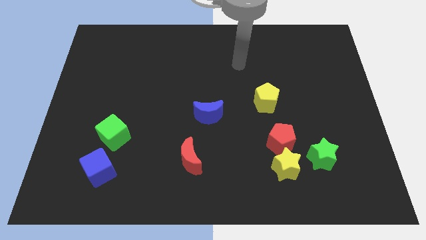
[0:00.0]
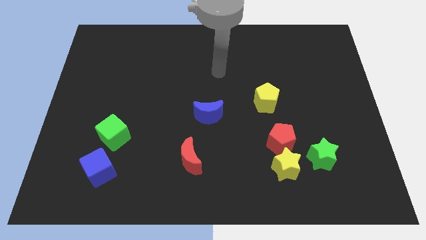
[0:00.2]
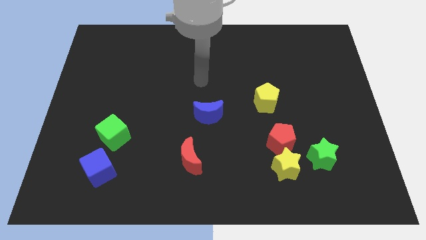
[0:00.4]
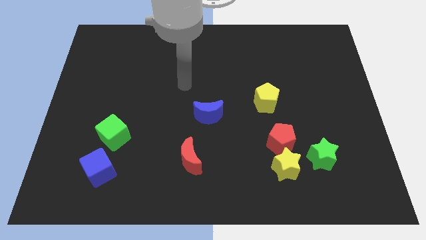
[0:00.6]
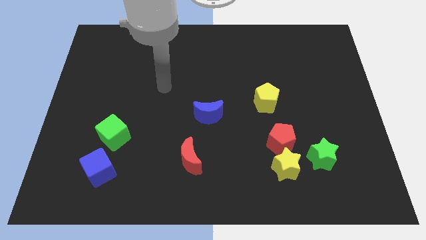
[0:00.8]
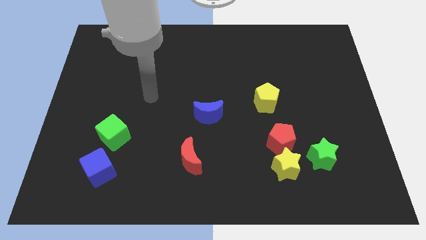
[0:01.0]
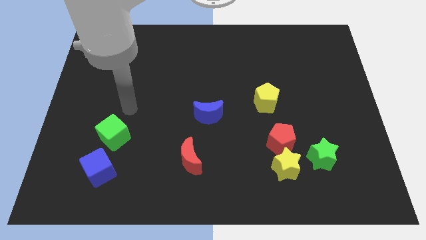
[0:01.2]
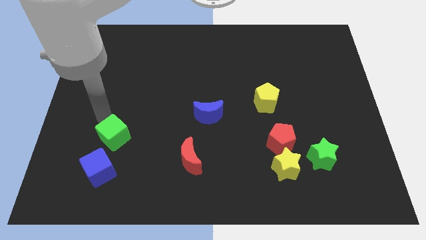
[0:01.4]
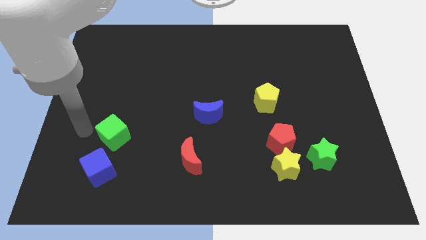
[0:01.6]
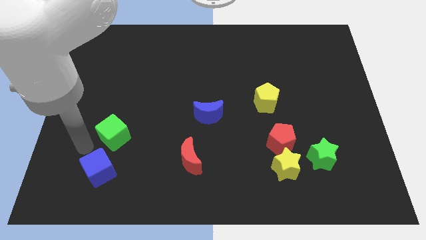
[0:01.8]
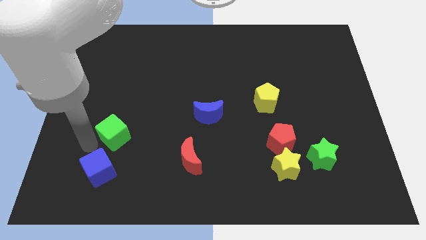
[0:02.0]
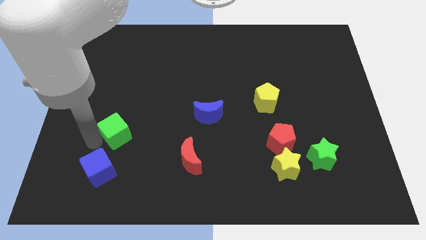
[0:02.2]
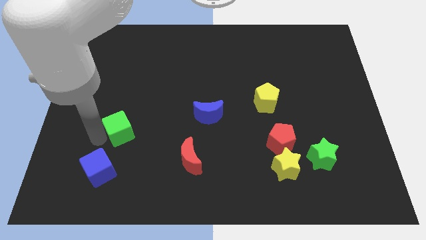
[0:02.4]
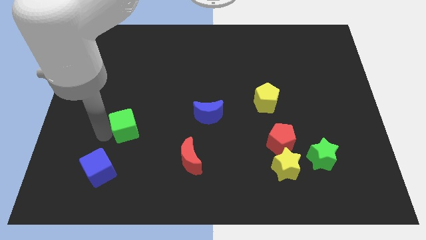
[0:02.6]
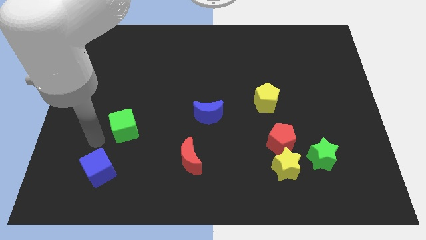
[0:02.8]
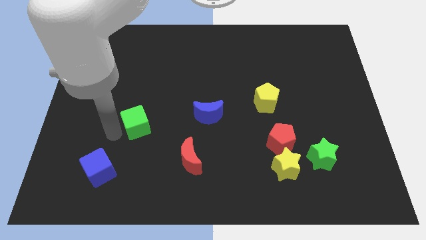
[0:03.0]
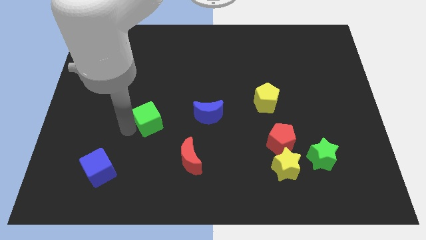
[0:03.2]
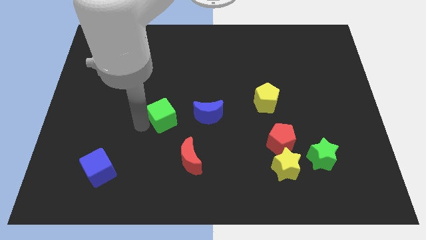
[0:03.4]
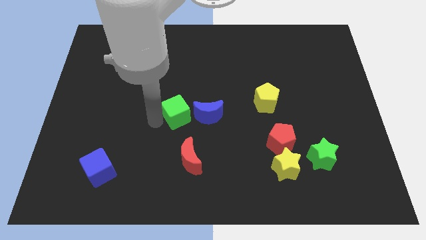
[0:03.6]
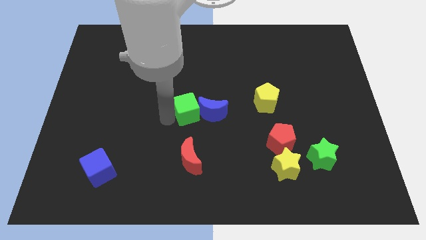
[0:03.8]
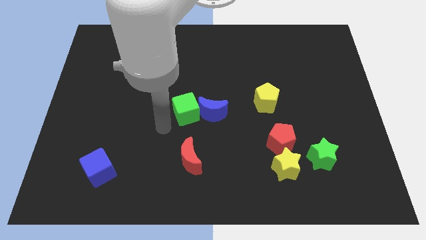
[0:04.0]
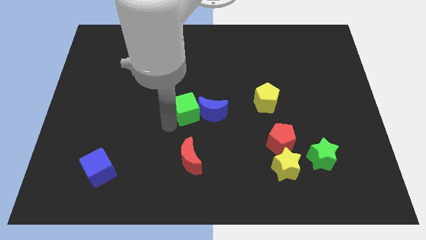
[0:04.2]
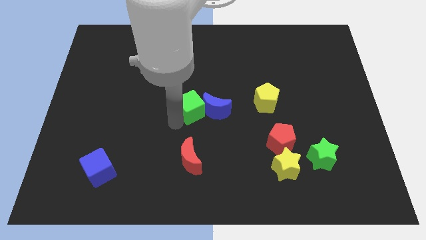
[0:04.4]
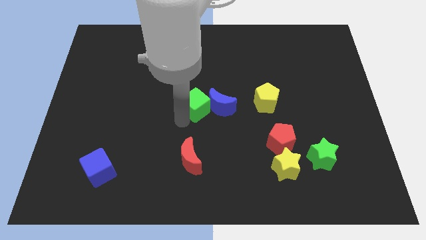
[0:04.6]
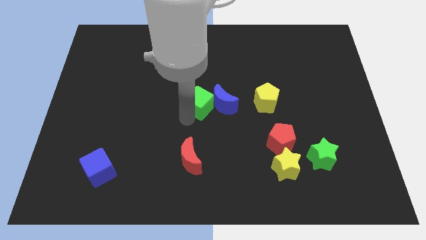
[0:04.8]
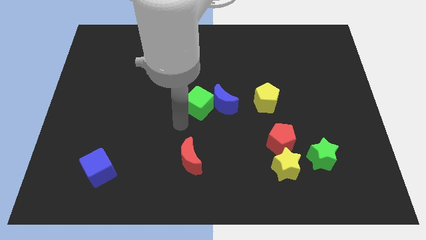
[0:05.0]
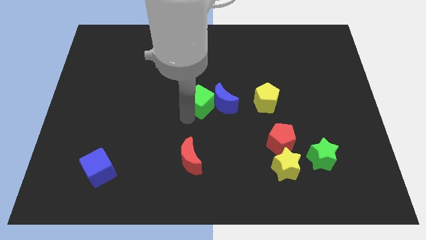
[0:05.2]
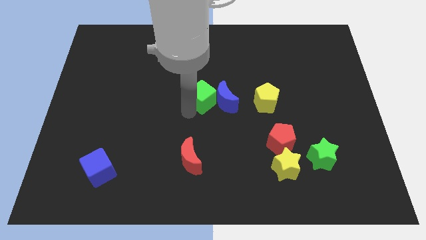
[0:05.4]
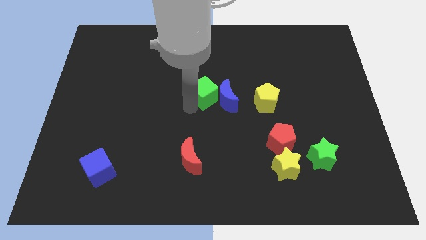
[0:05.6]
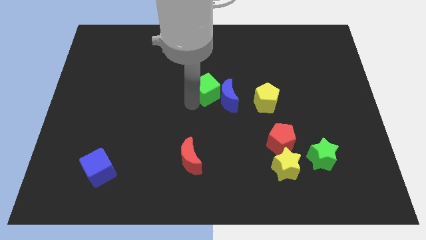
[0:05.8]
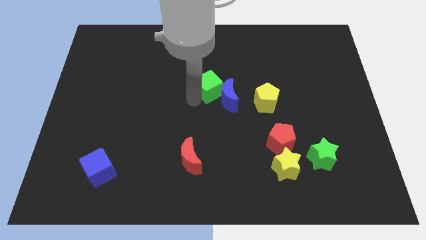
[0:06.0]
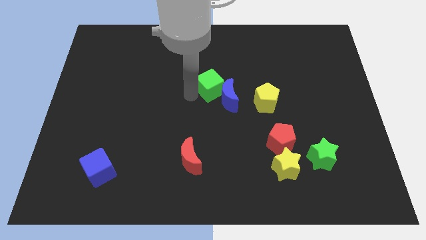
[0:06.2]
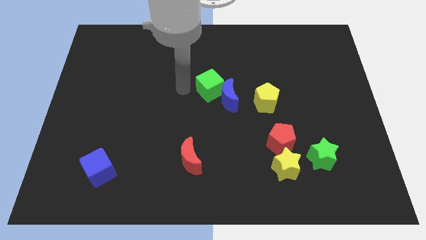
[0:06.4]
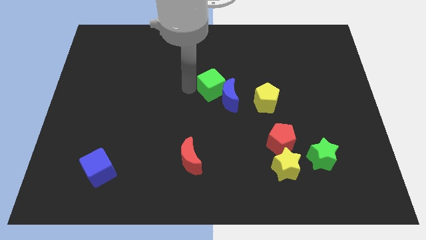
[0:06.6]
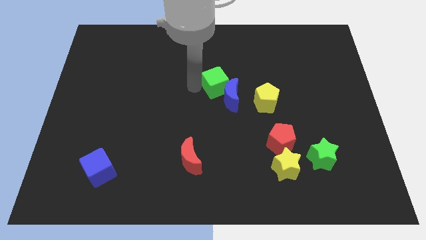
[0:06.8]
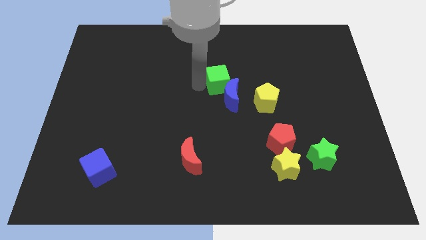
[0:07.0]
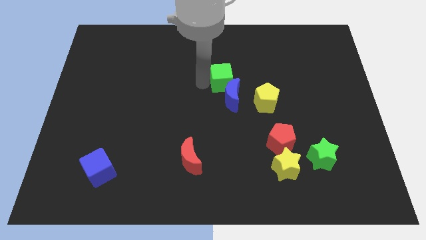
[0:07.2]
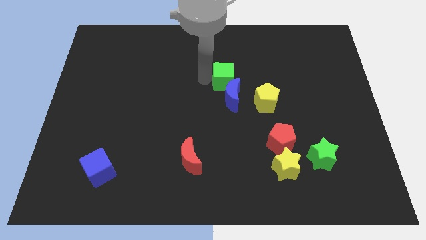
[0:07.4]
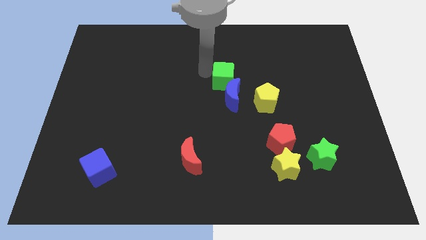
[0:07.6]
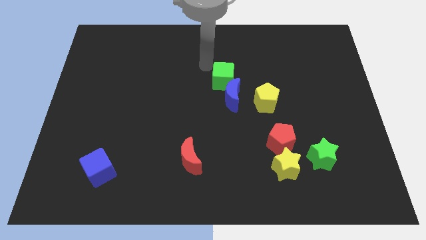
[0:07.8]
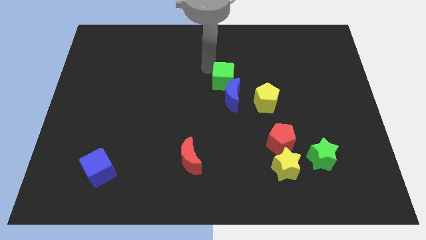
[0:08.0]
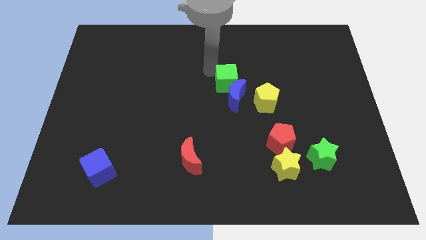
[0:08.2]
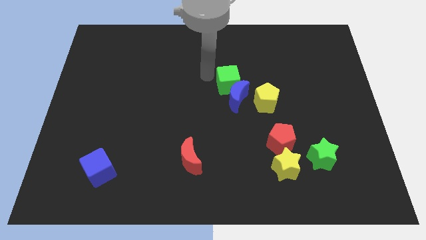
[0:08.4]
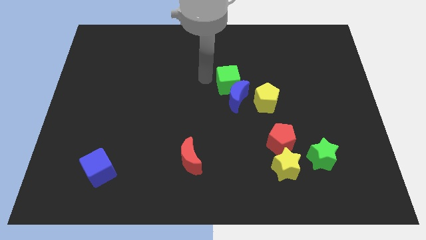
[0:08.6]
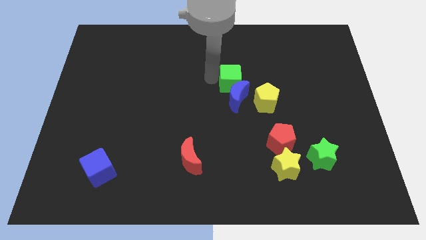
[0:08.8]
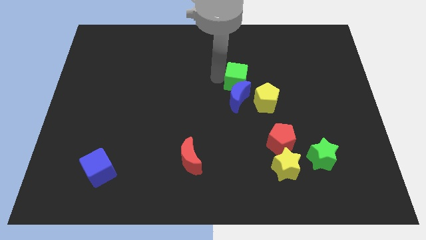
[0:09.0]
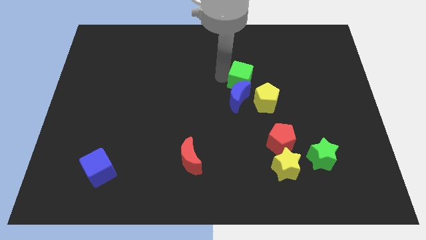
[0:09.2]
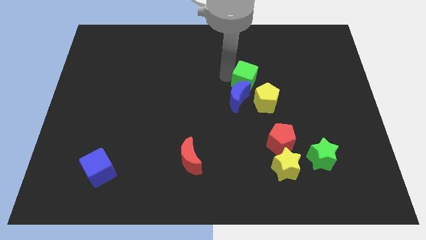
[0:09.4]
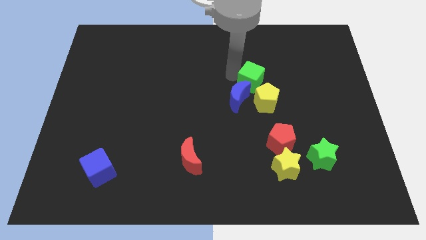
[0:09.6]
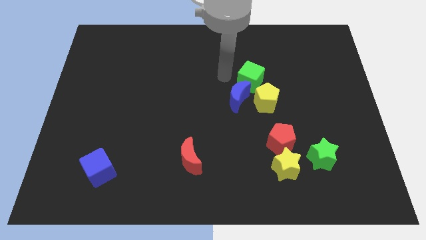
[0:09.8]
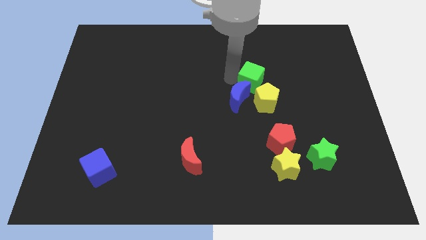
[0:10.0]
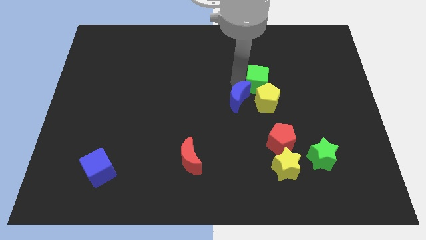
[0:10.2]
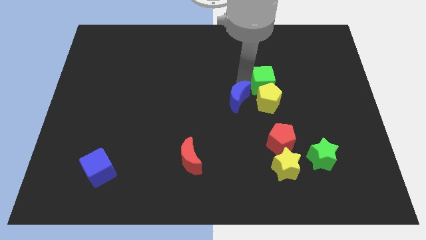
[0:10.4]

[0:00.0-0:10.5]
slide the green cube to the top right of the yellow pentagon

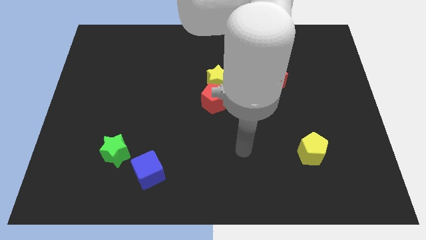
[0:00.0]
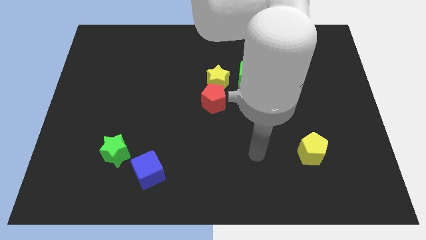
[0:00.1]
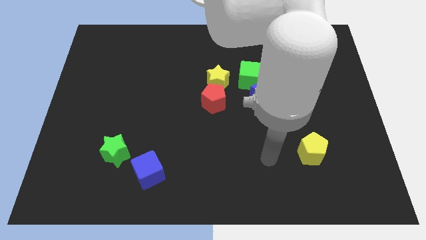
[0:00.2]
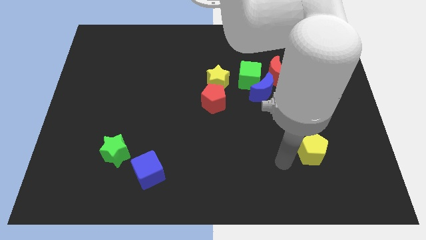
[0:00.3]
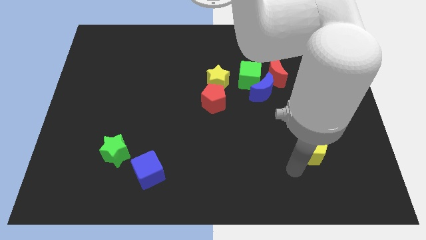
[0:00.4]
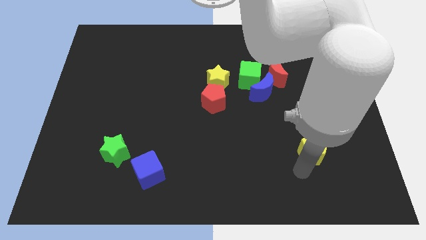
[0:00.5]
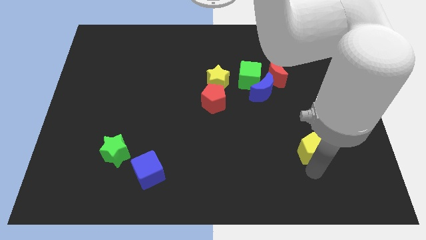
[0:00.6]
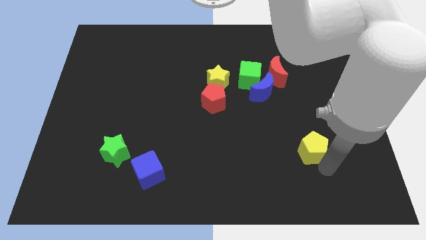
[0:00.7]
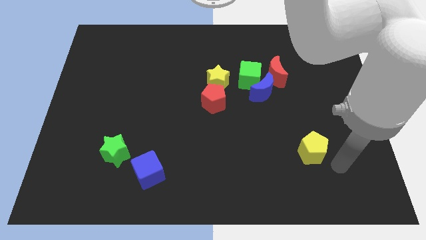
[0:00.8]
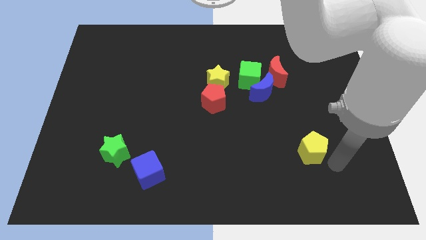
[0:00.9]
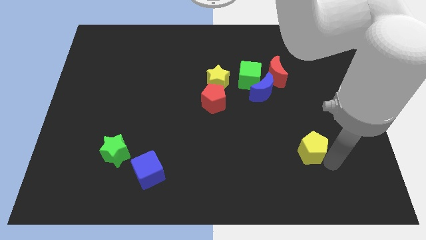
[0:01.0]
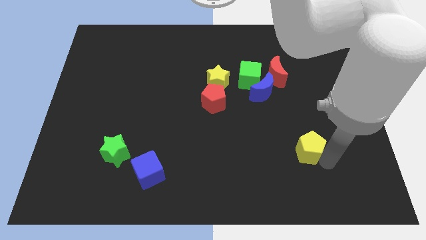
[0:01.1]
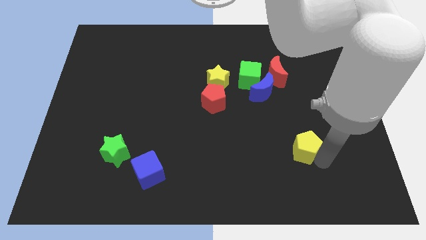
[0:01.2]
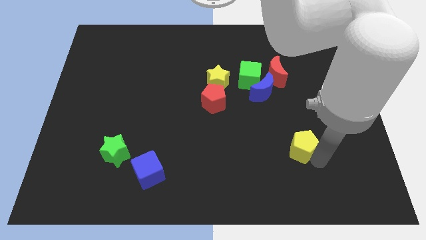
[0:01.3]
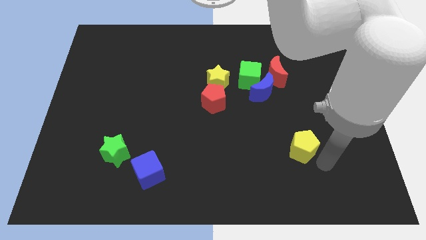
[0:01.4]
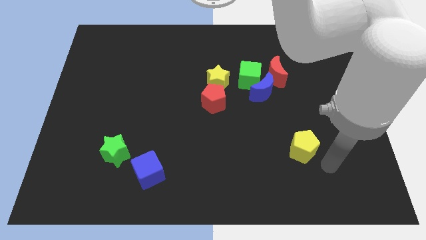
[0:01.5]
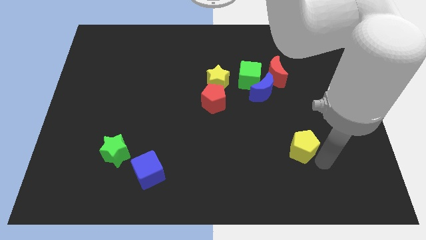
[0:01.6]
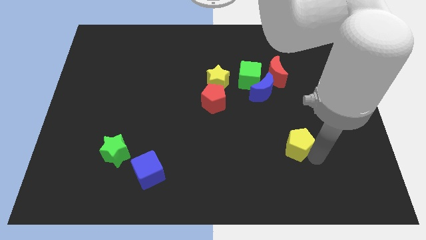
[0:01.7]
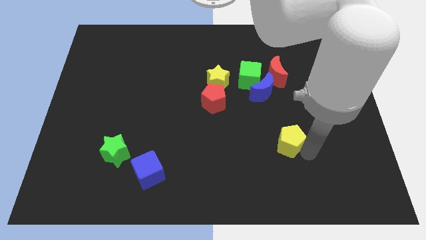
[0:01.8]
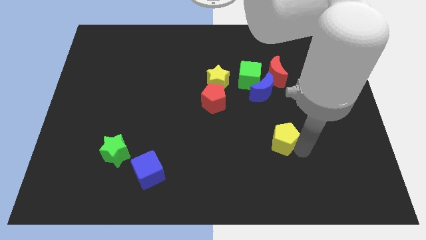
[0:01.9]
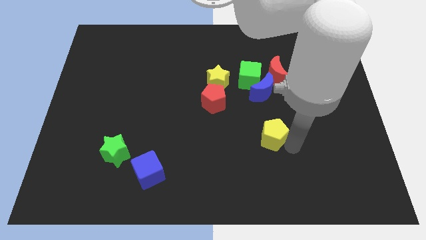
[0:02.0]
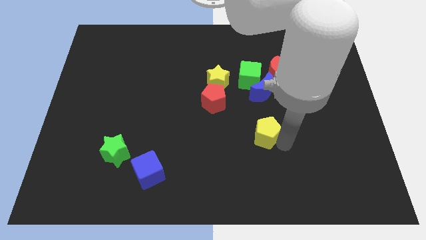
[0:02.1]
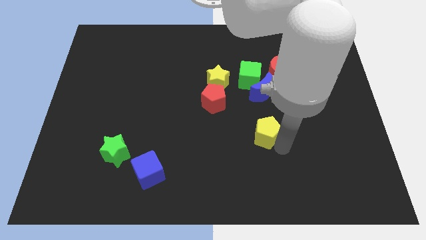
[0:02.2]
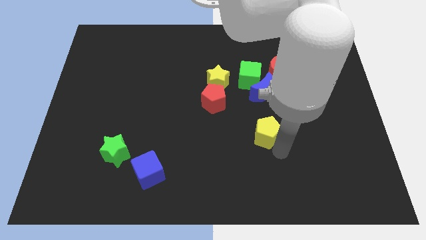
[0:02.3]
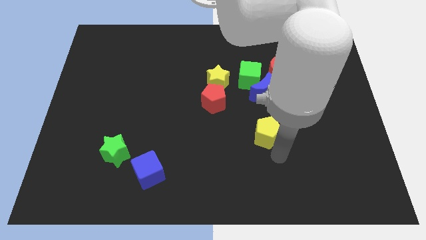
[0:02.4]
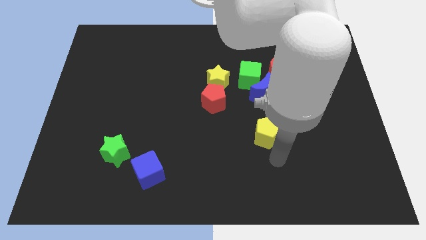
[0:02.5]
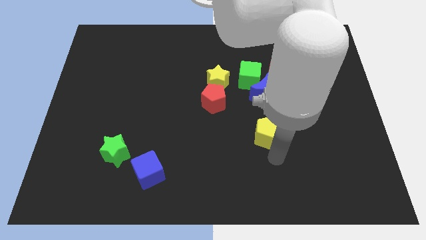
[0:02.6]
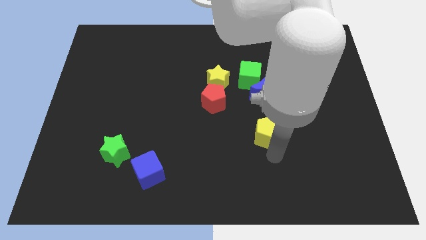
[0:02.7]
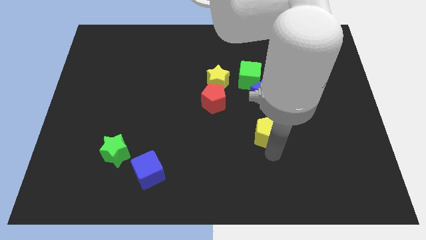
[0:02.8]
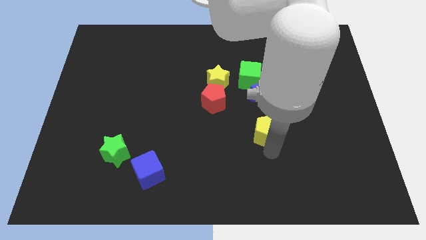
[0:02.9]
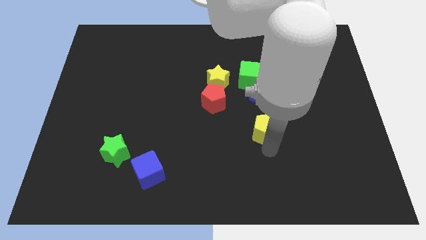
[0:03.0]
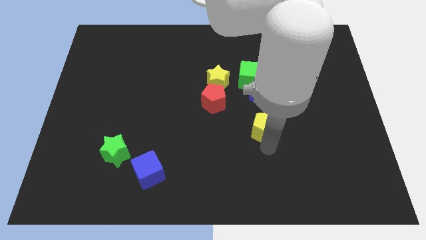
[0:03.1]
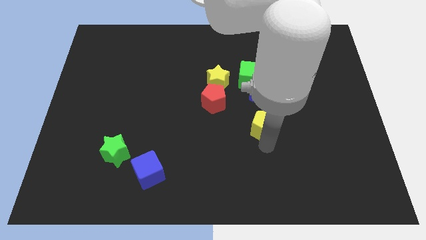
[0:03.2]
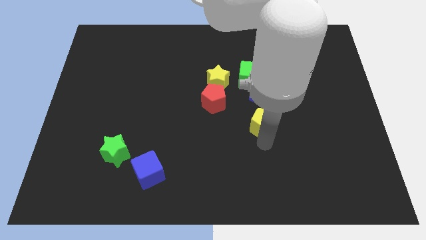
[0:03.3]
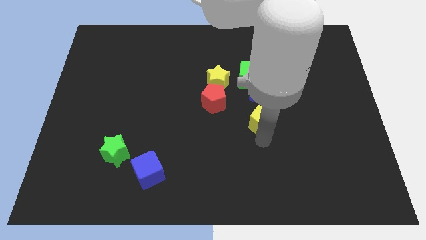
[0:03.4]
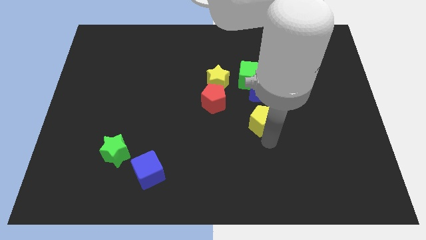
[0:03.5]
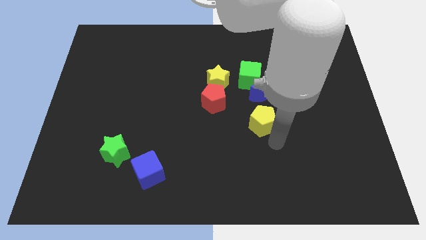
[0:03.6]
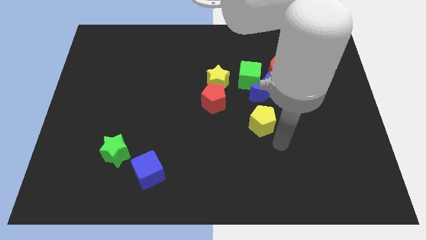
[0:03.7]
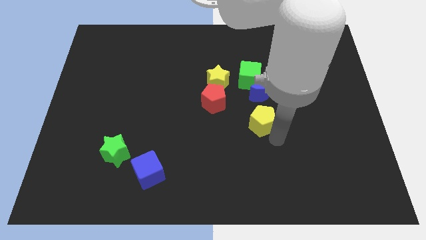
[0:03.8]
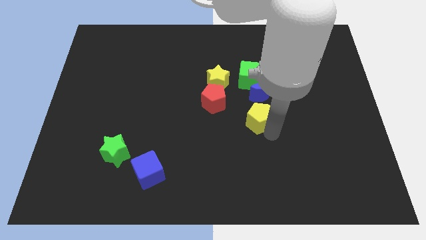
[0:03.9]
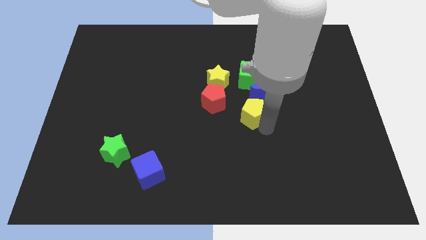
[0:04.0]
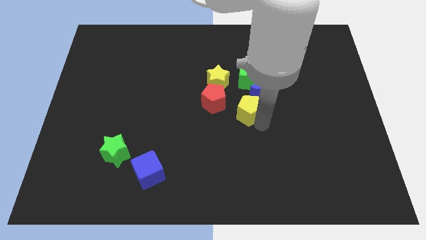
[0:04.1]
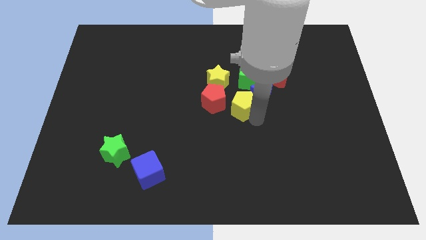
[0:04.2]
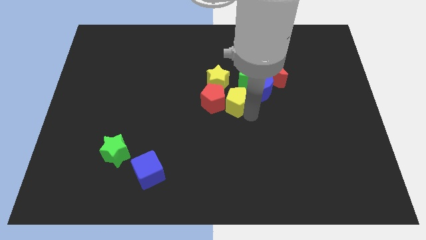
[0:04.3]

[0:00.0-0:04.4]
put the yellow pentagon to the bottom left side of the green cube
